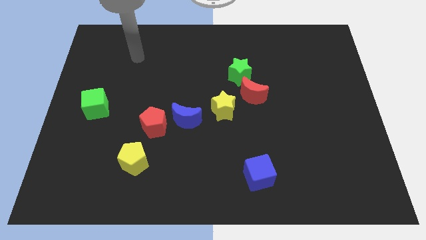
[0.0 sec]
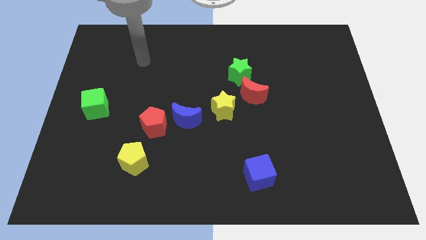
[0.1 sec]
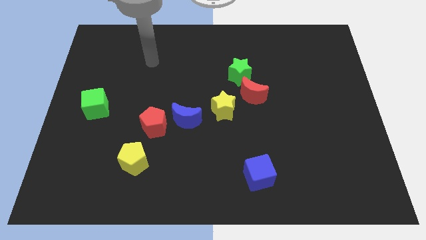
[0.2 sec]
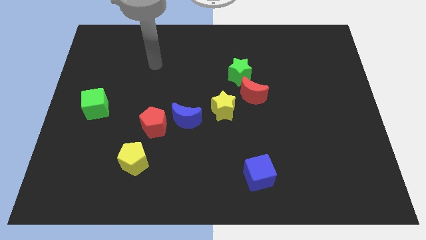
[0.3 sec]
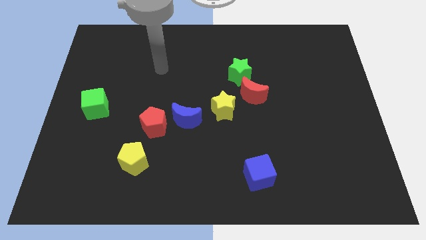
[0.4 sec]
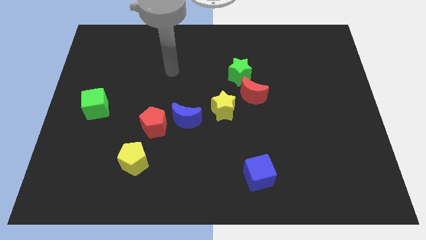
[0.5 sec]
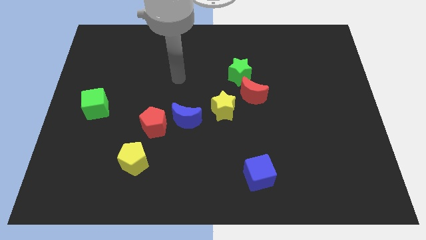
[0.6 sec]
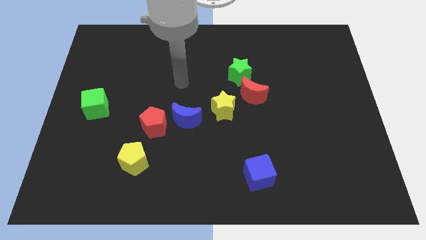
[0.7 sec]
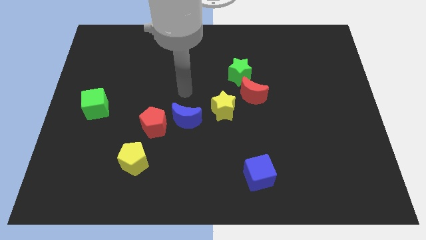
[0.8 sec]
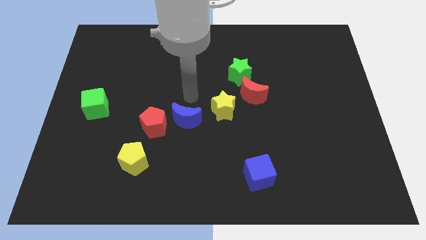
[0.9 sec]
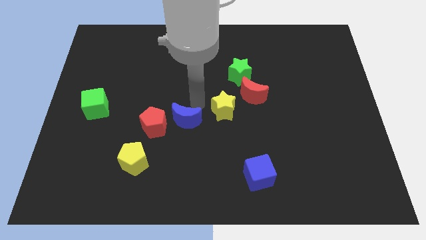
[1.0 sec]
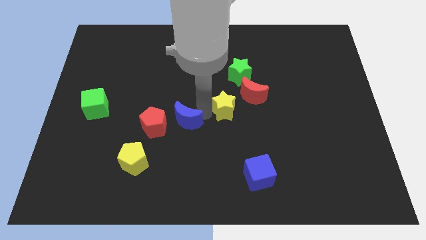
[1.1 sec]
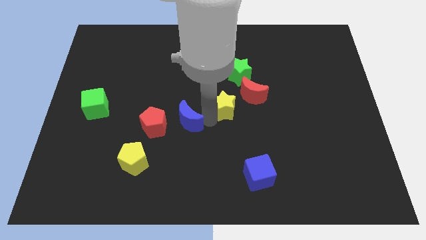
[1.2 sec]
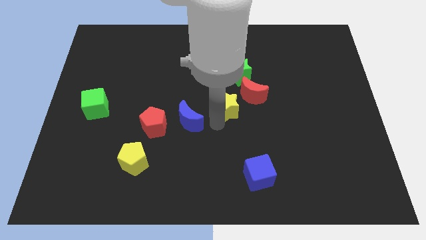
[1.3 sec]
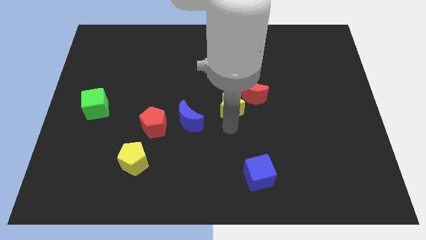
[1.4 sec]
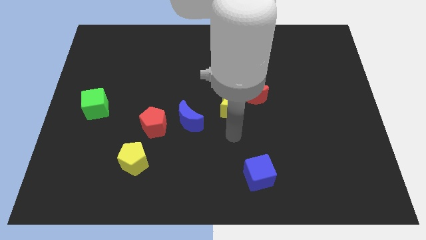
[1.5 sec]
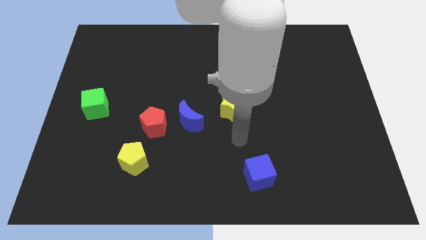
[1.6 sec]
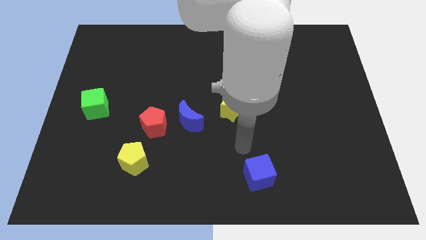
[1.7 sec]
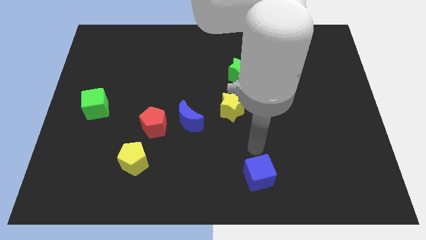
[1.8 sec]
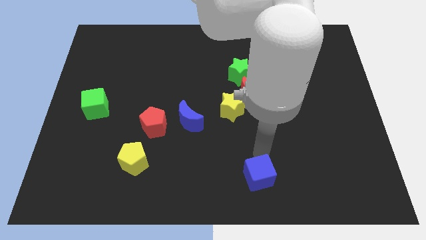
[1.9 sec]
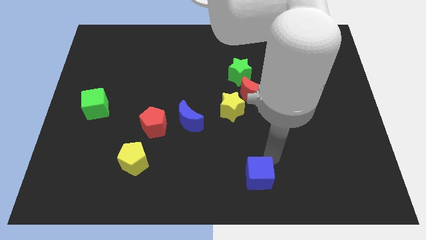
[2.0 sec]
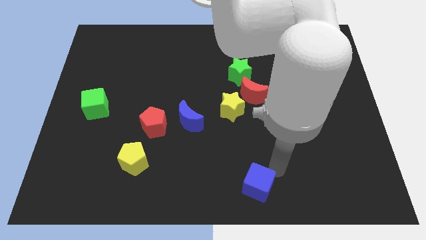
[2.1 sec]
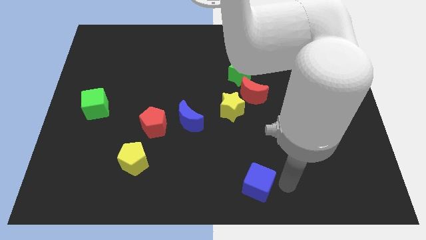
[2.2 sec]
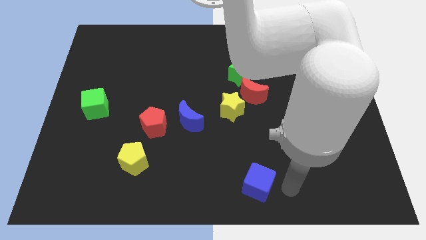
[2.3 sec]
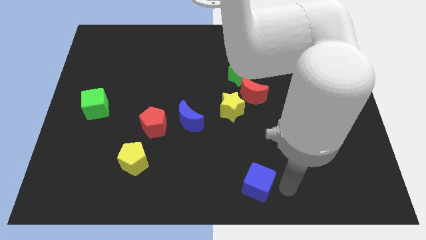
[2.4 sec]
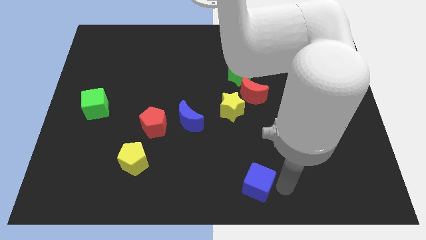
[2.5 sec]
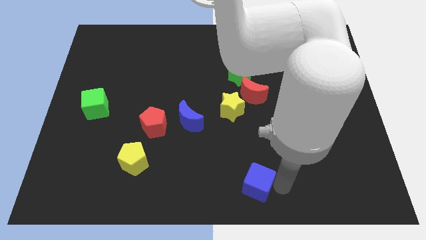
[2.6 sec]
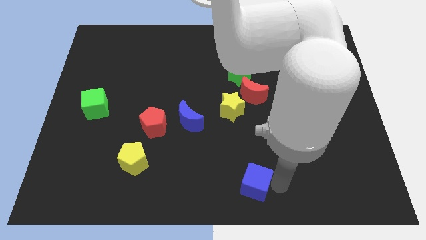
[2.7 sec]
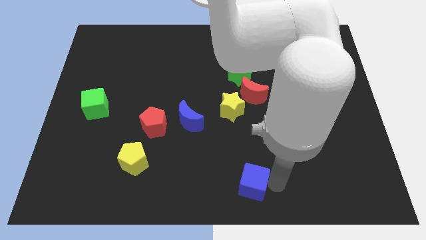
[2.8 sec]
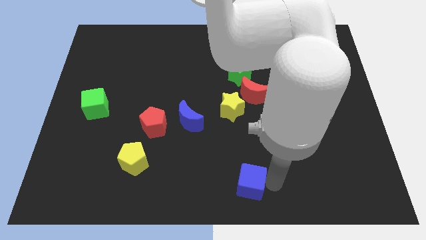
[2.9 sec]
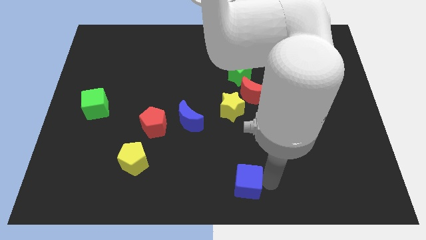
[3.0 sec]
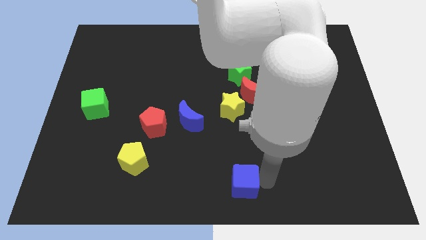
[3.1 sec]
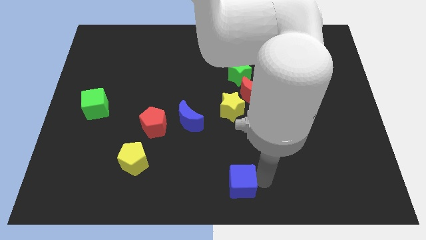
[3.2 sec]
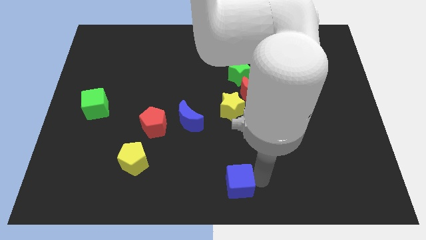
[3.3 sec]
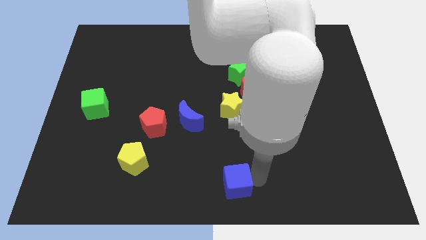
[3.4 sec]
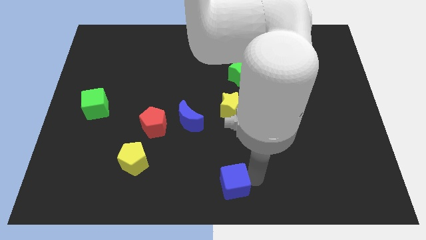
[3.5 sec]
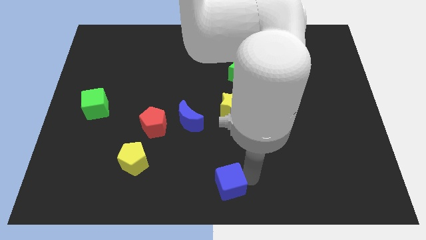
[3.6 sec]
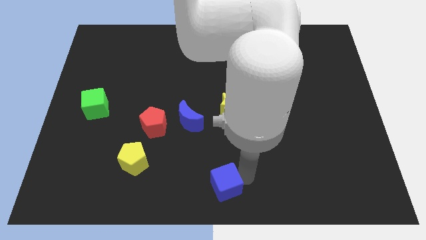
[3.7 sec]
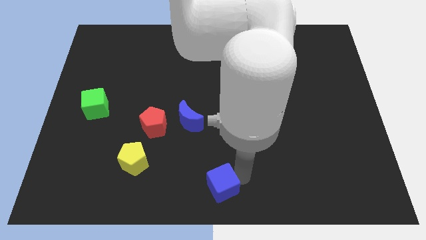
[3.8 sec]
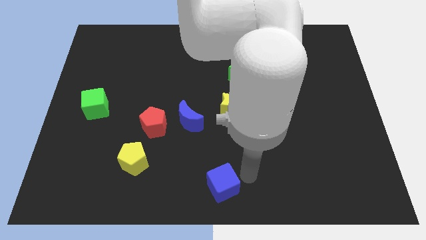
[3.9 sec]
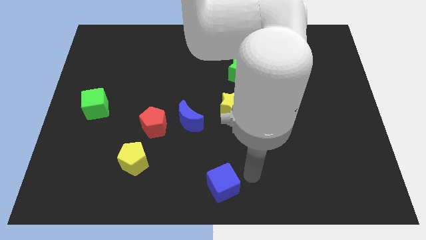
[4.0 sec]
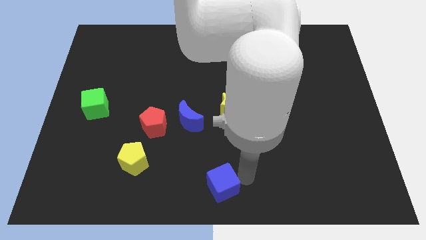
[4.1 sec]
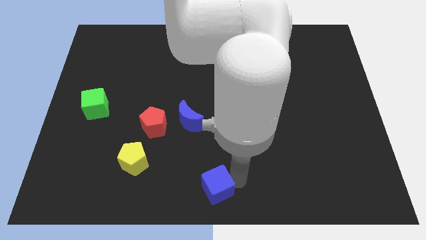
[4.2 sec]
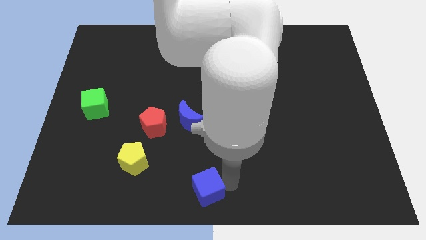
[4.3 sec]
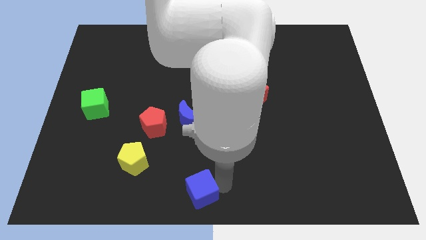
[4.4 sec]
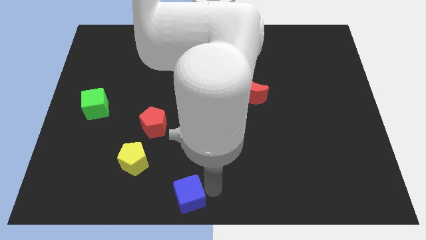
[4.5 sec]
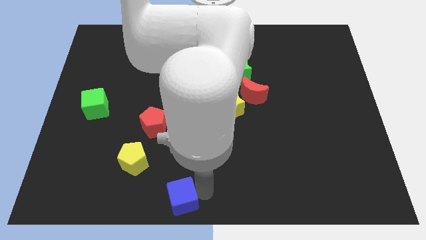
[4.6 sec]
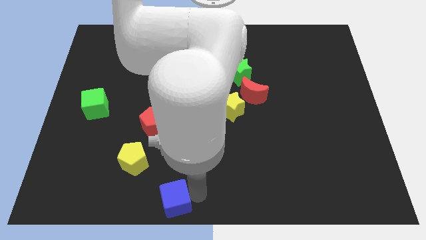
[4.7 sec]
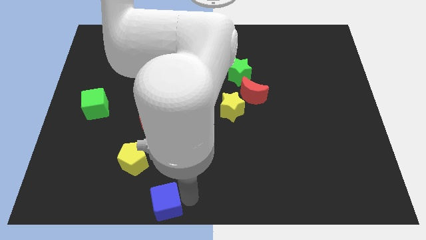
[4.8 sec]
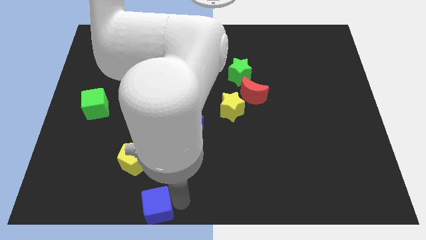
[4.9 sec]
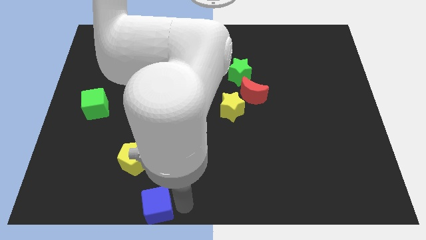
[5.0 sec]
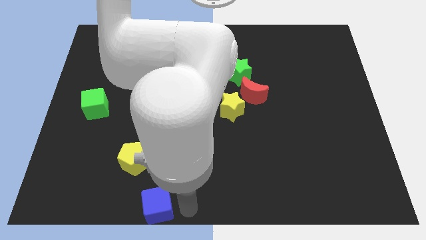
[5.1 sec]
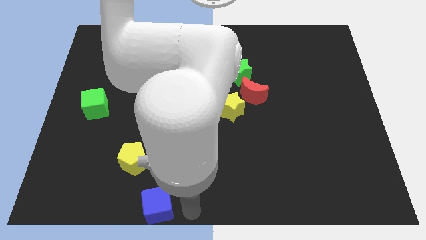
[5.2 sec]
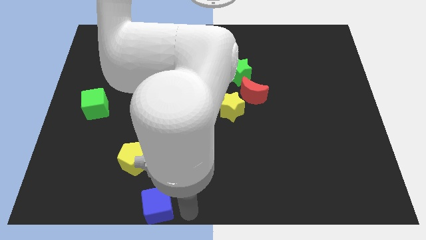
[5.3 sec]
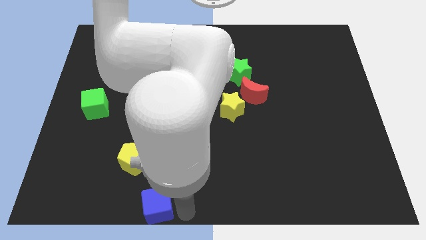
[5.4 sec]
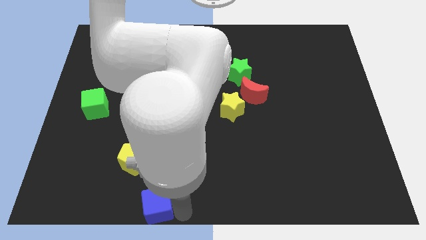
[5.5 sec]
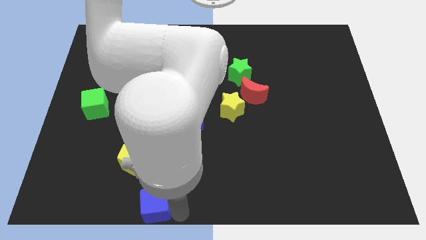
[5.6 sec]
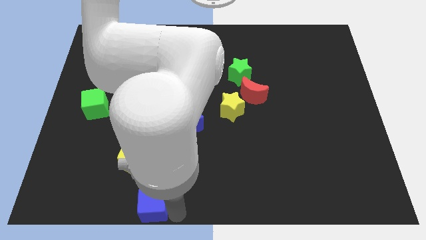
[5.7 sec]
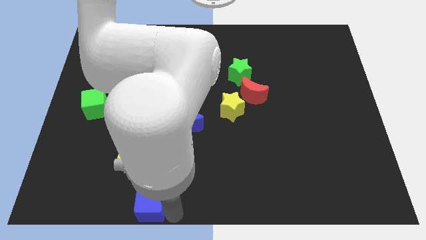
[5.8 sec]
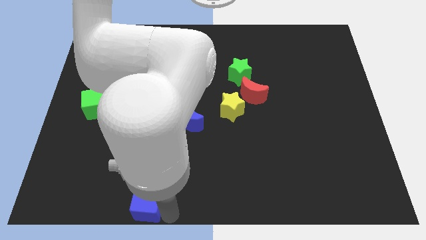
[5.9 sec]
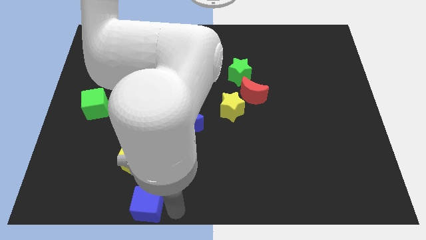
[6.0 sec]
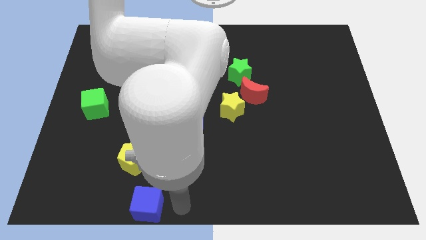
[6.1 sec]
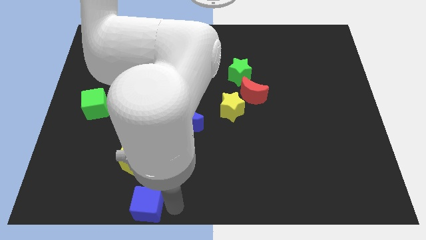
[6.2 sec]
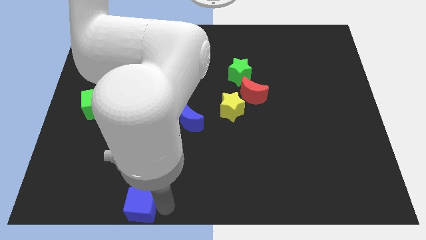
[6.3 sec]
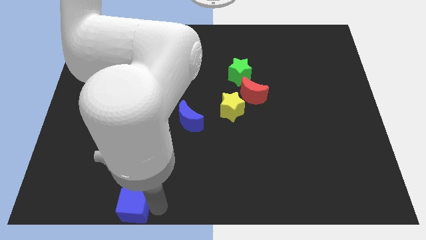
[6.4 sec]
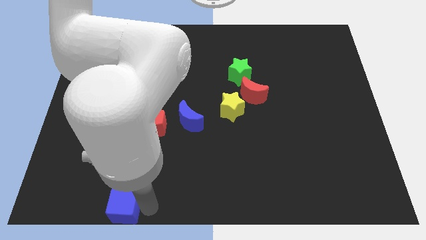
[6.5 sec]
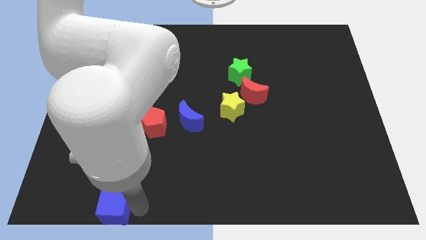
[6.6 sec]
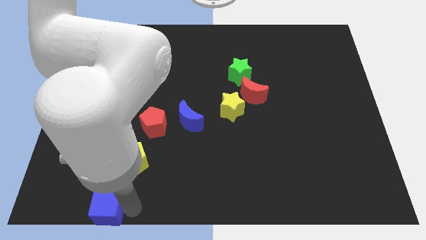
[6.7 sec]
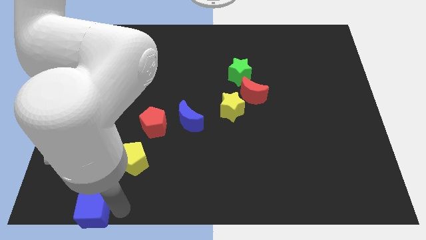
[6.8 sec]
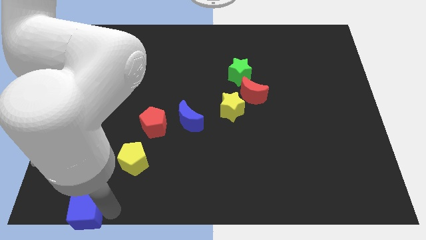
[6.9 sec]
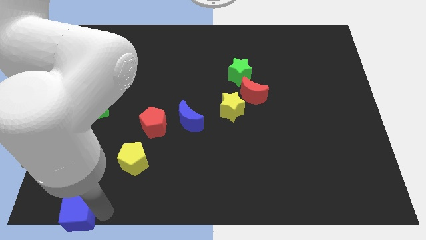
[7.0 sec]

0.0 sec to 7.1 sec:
move the blue cube to the bottom left corner
